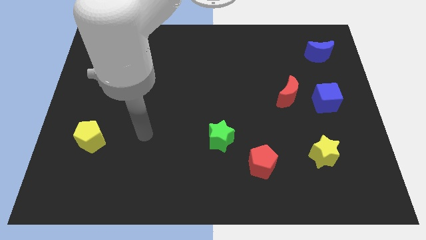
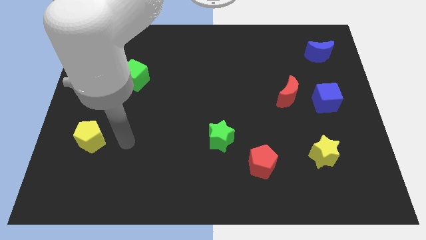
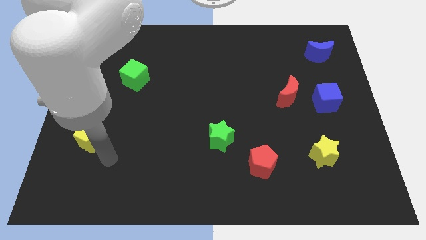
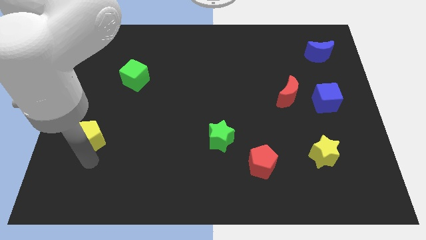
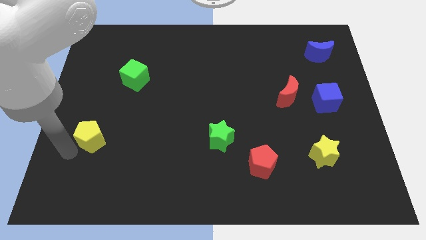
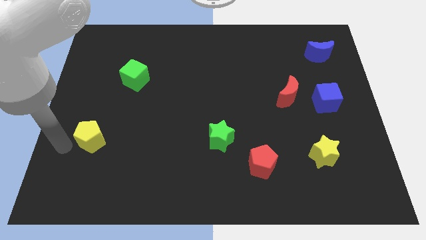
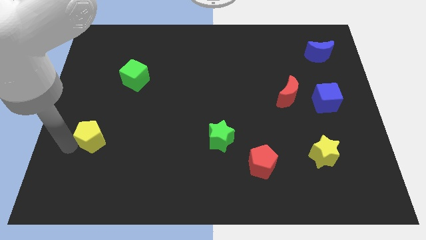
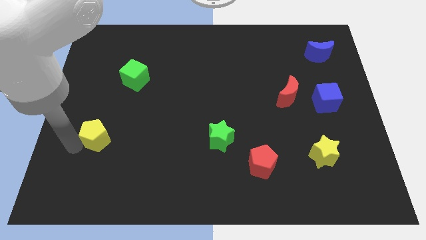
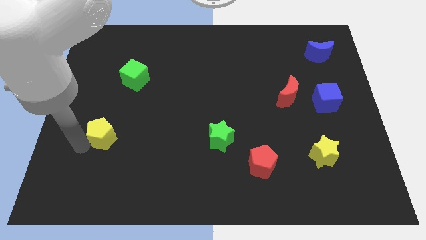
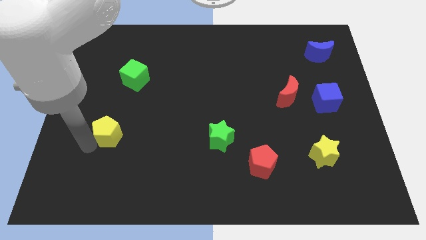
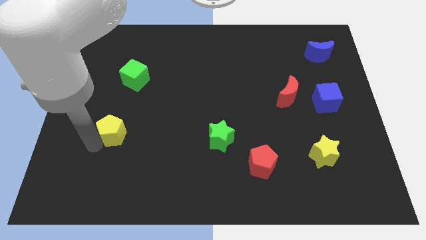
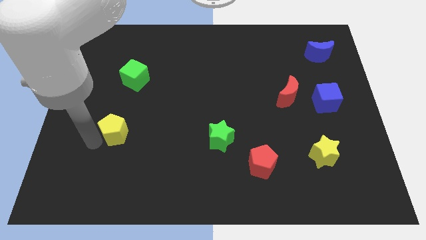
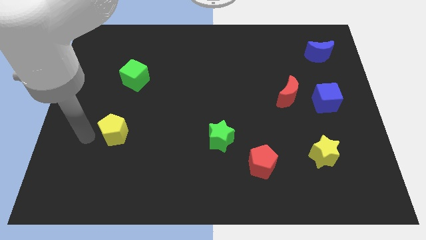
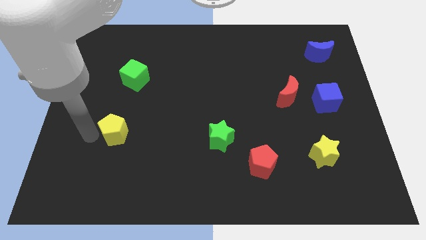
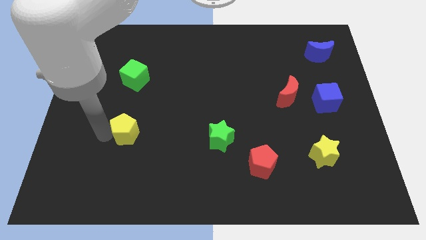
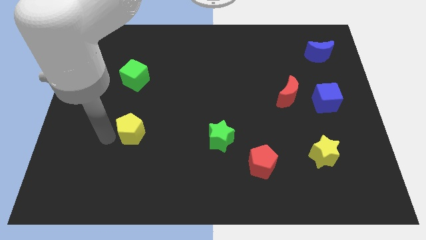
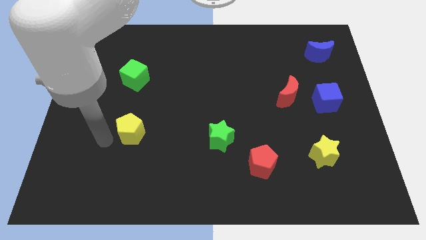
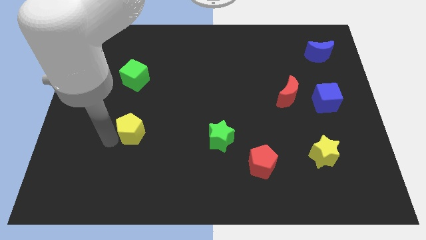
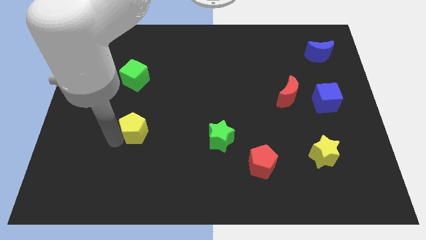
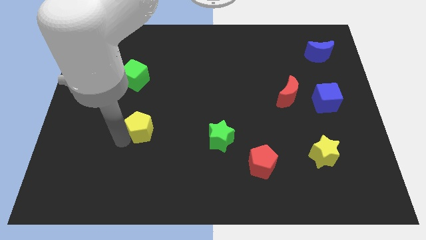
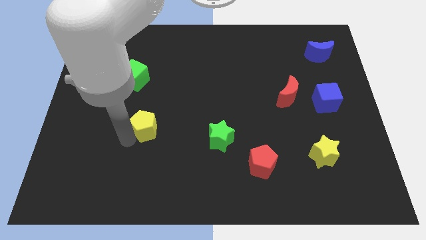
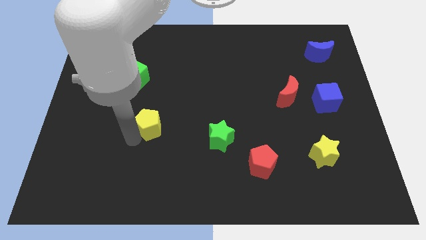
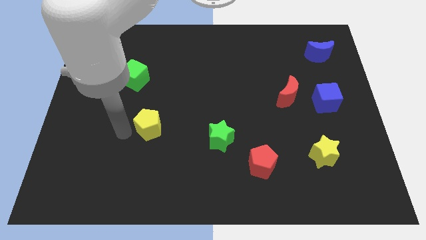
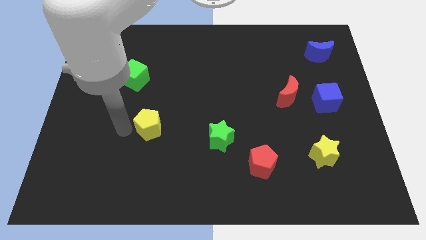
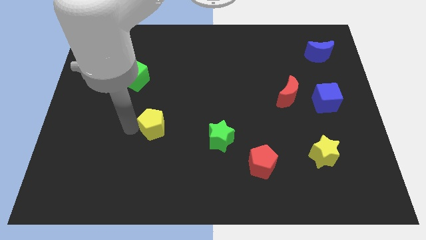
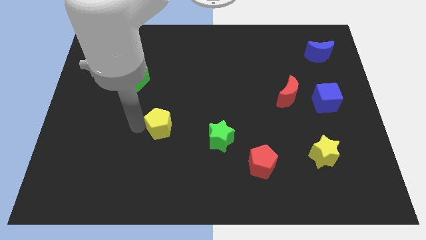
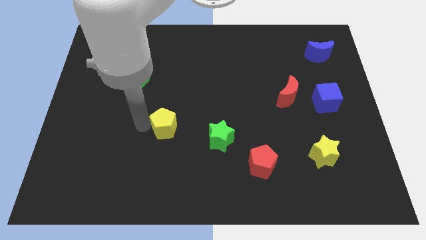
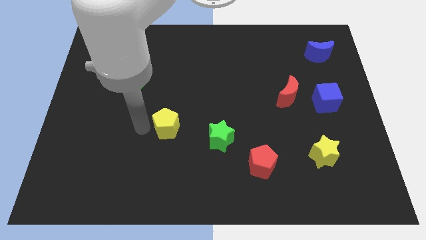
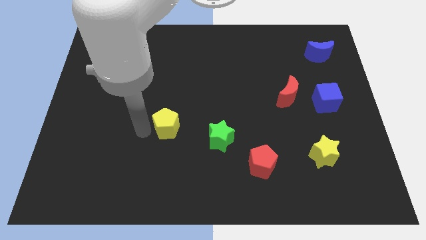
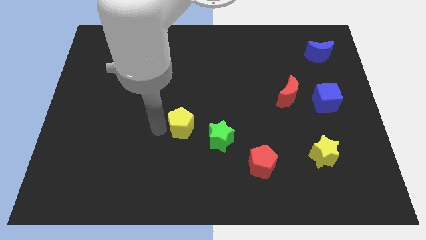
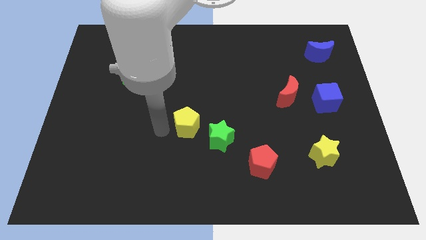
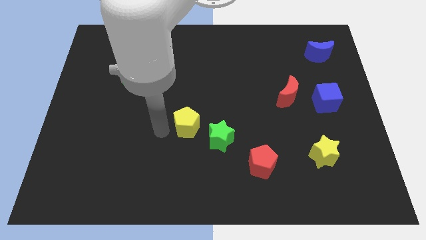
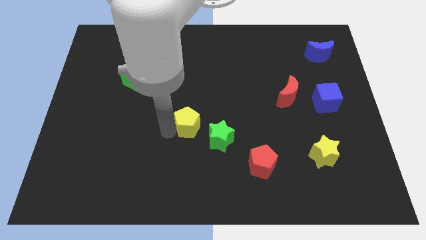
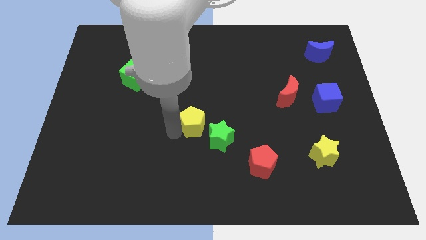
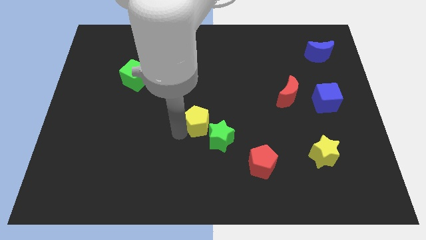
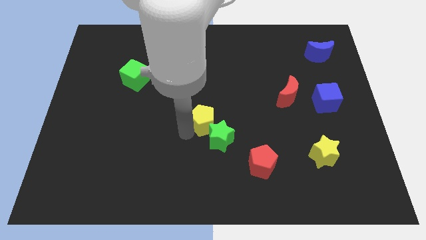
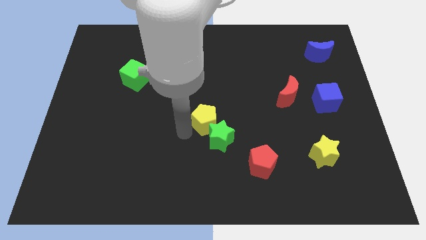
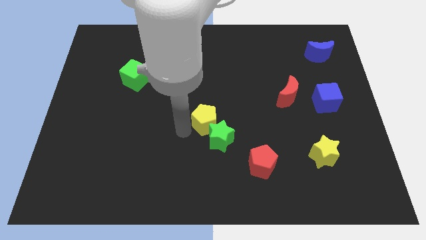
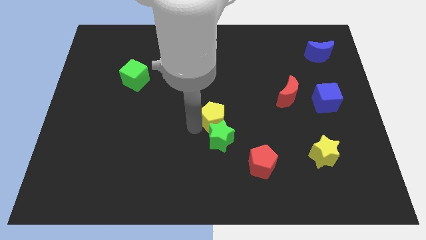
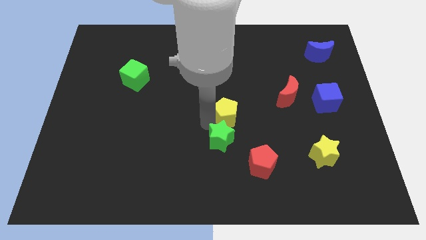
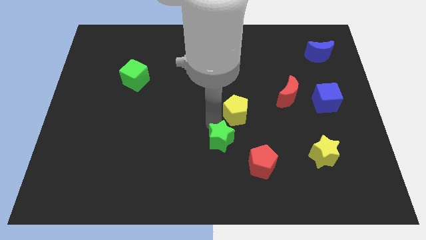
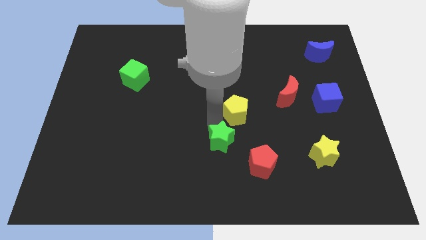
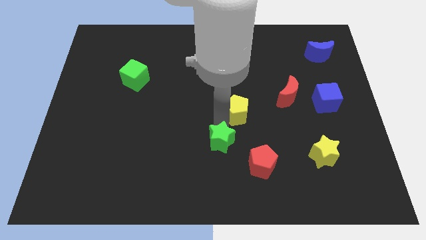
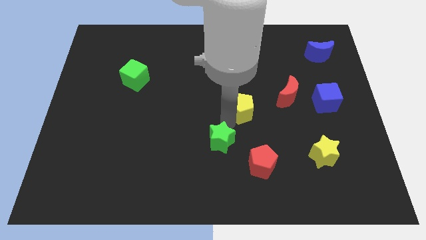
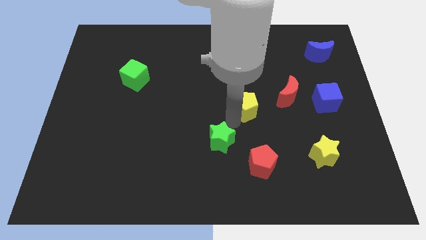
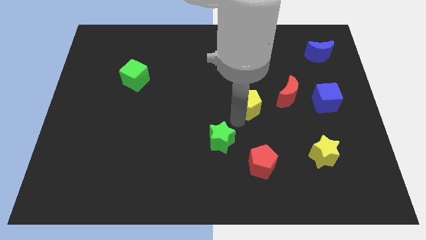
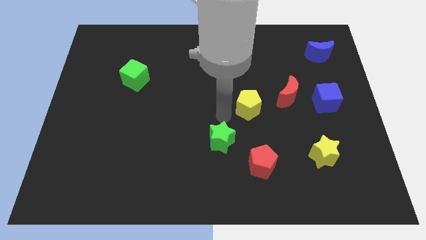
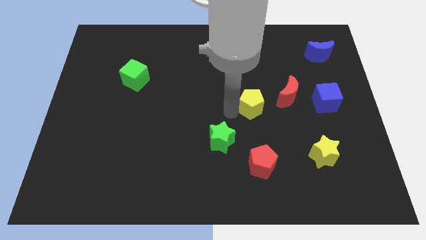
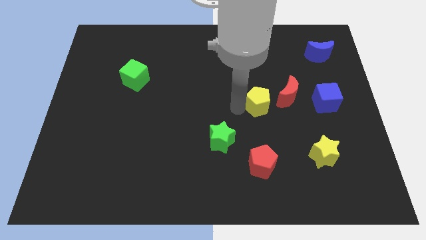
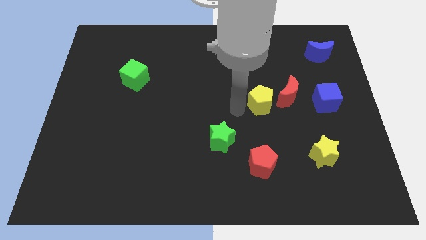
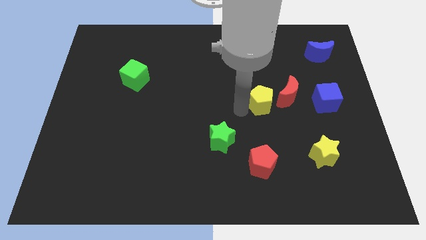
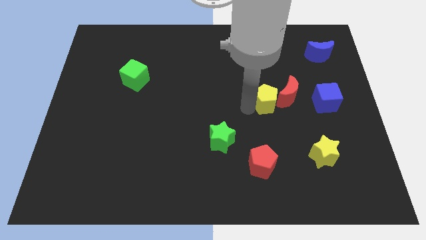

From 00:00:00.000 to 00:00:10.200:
move the yellow pentagon to the red moon

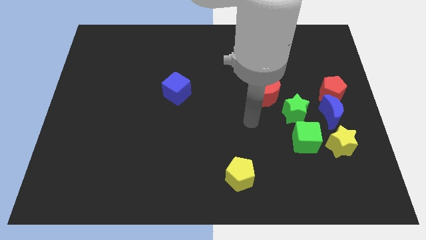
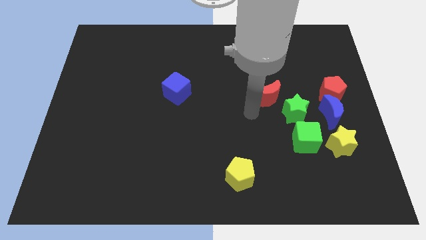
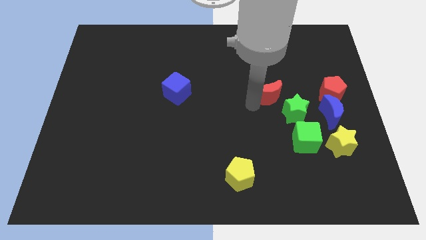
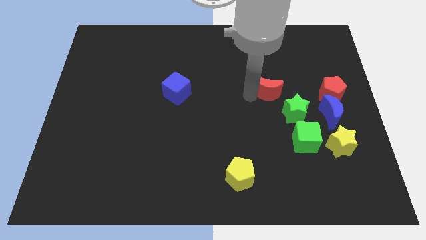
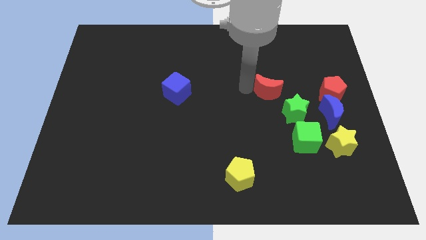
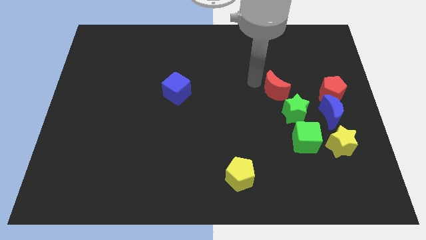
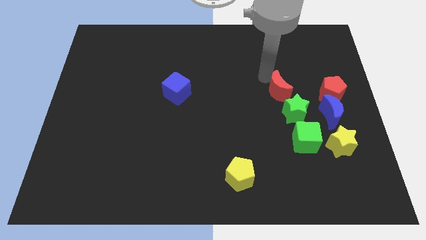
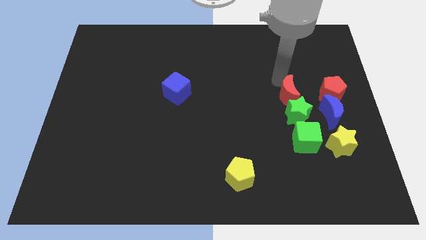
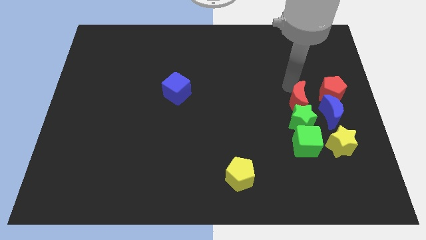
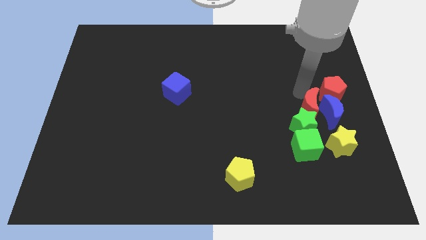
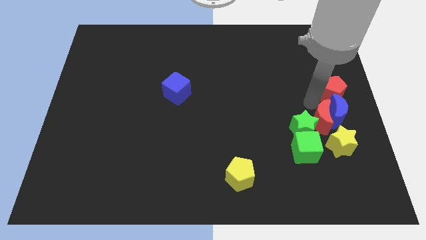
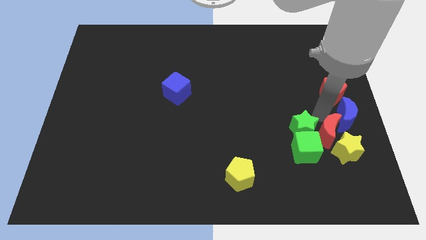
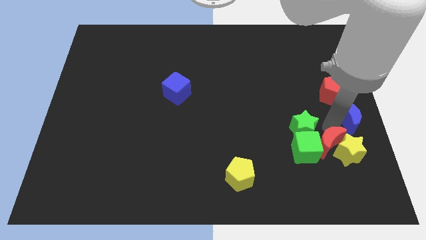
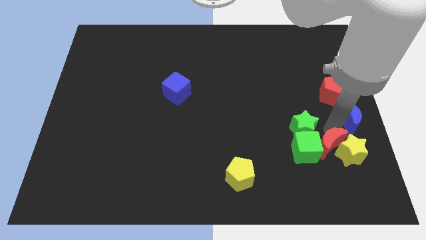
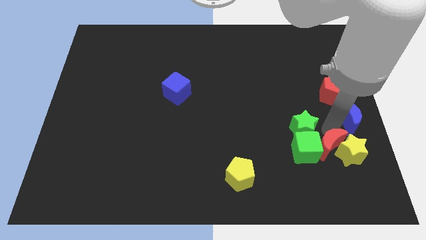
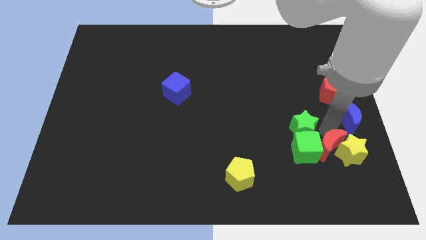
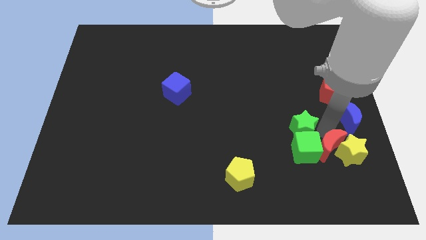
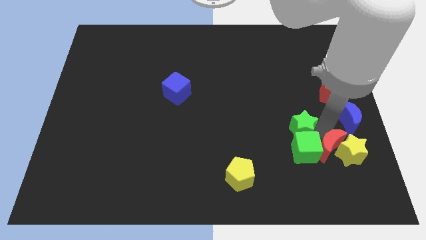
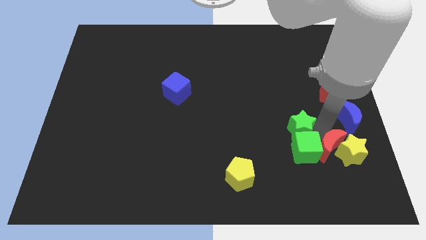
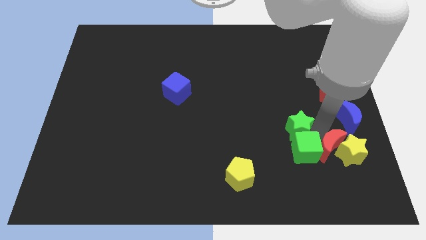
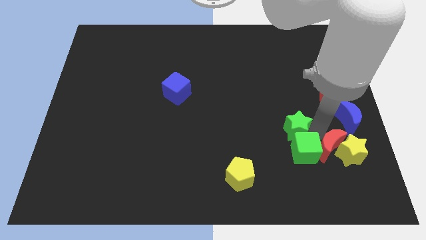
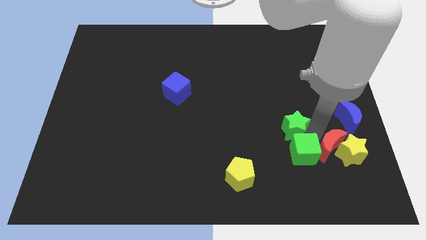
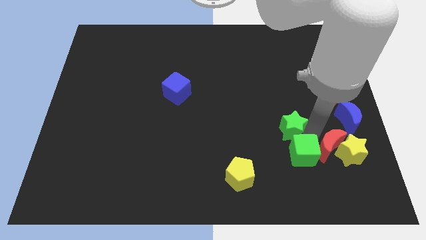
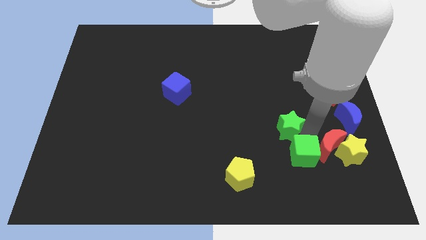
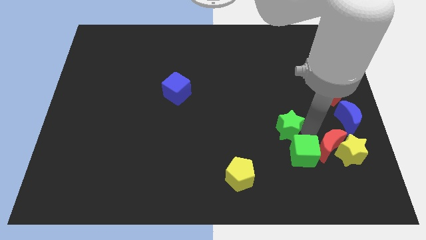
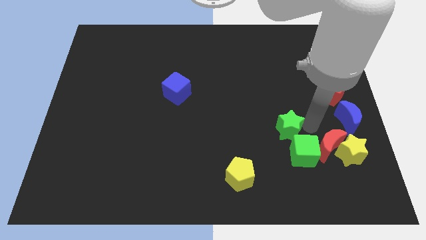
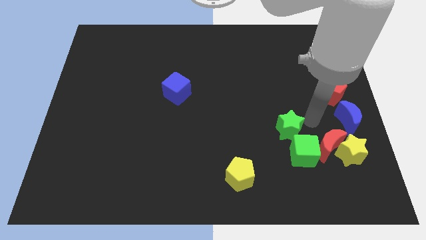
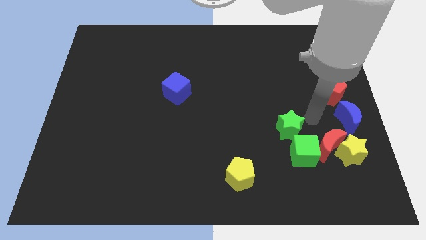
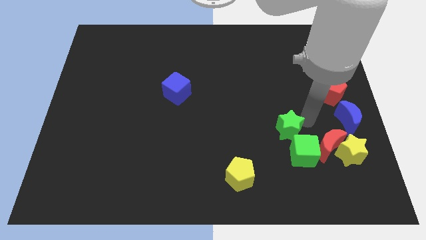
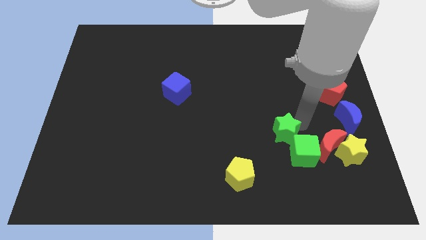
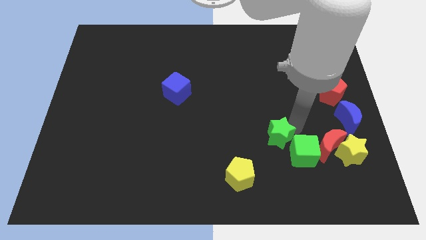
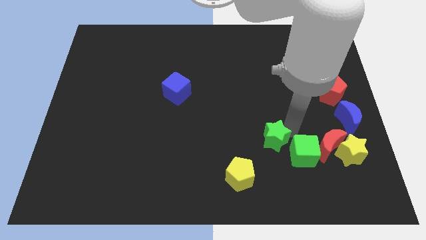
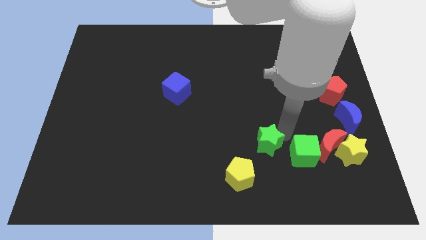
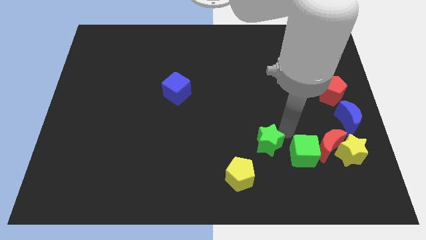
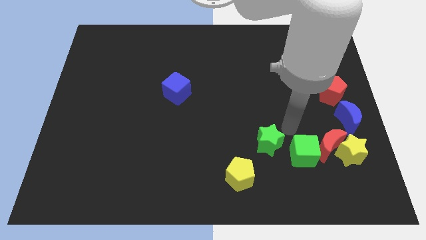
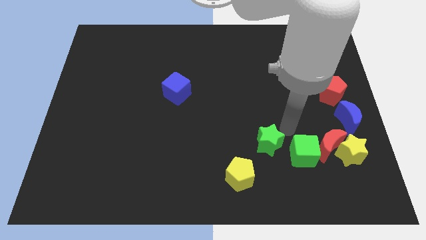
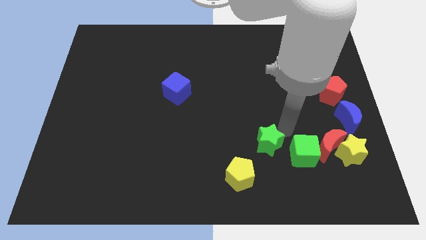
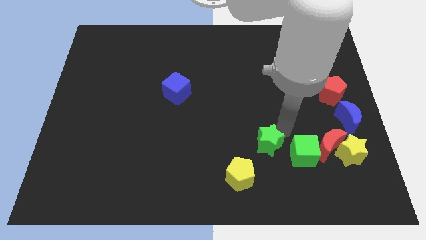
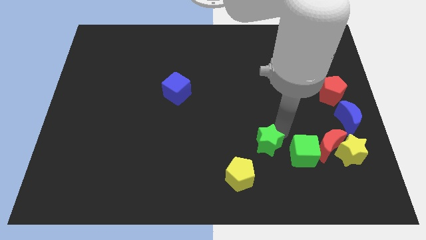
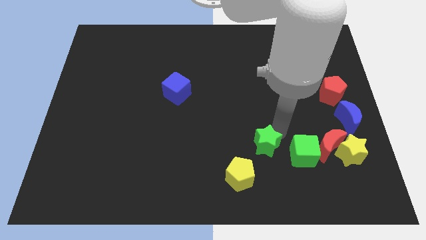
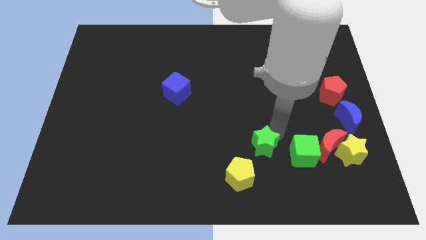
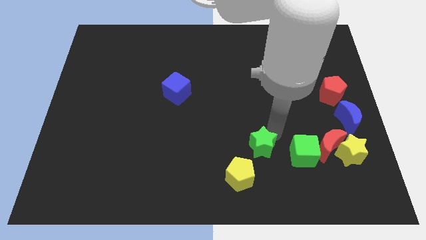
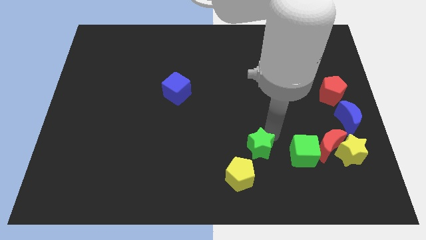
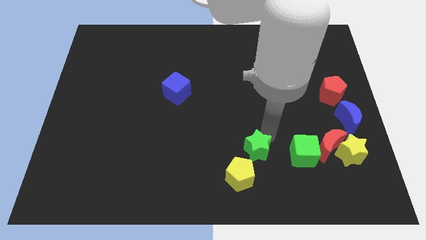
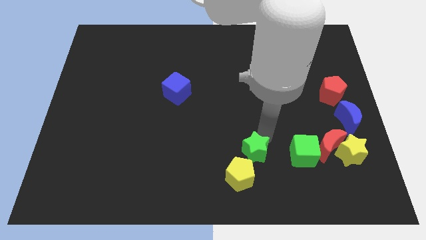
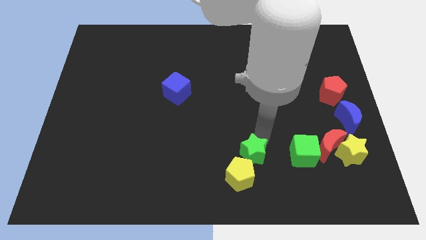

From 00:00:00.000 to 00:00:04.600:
slide the green star to the yellow pentagon
